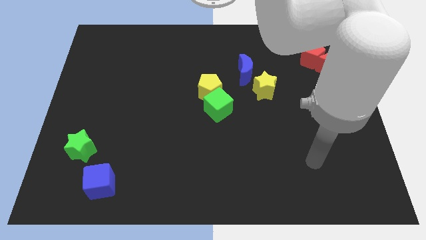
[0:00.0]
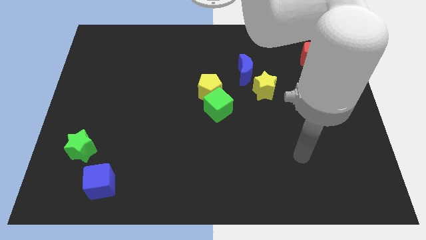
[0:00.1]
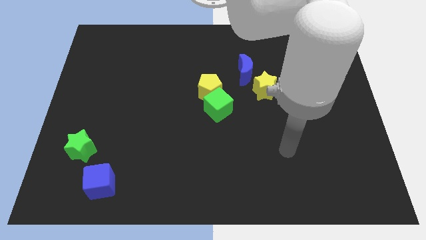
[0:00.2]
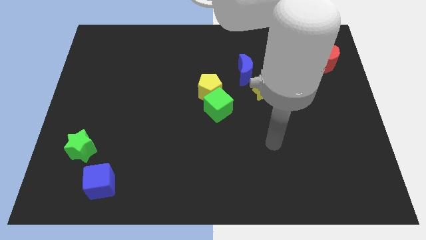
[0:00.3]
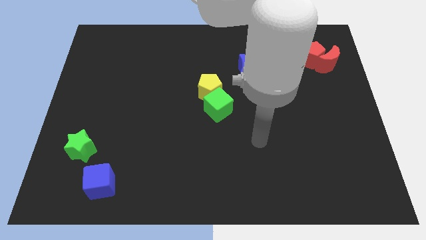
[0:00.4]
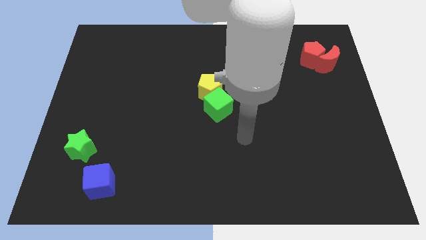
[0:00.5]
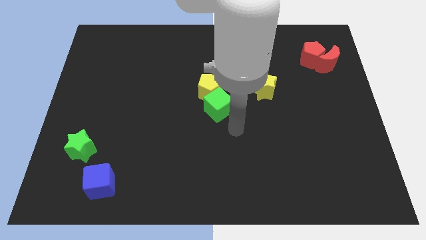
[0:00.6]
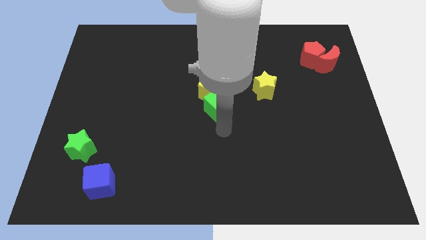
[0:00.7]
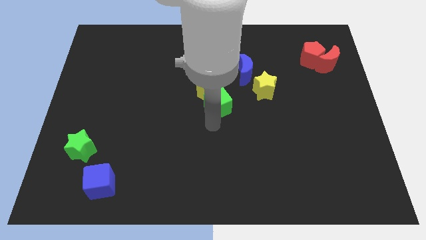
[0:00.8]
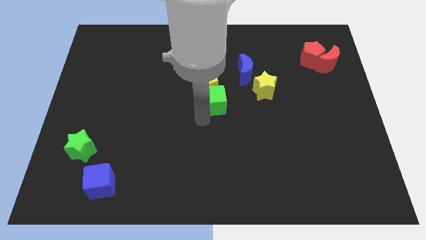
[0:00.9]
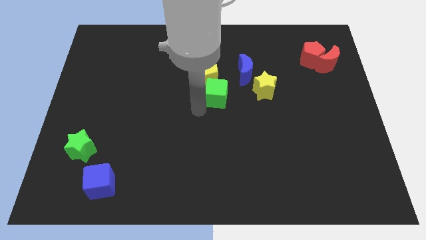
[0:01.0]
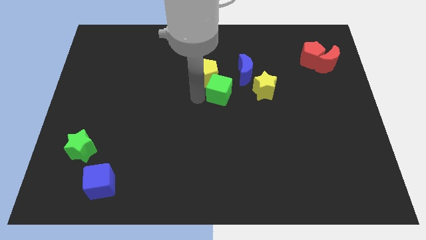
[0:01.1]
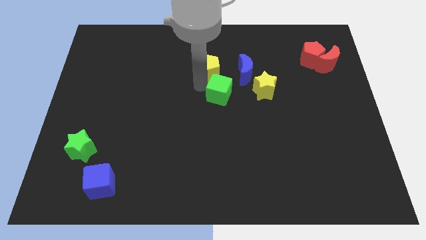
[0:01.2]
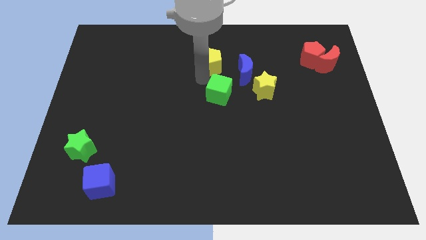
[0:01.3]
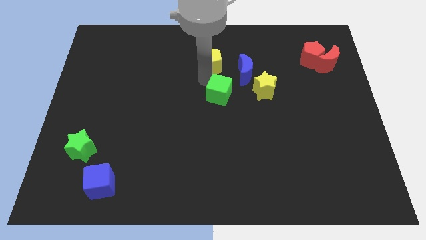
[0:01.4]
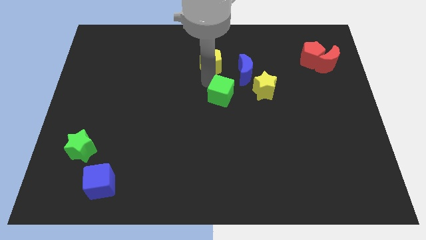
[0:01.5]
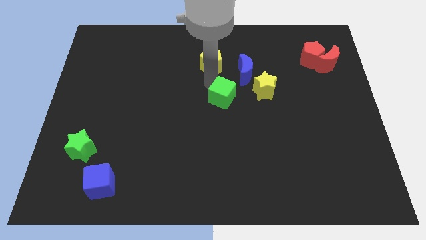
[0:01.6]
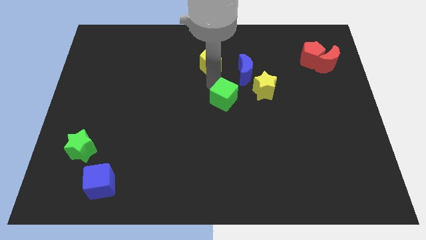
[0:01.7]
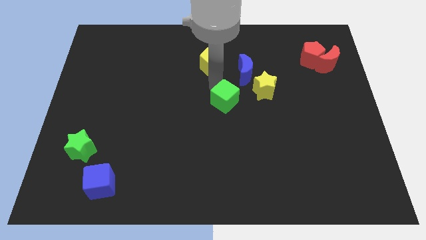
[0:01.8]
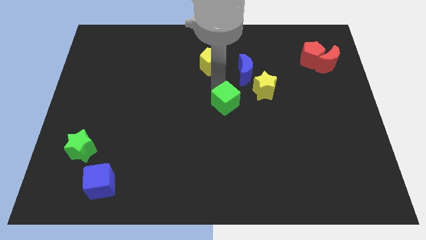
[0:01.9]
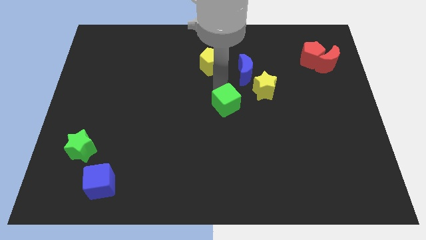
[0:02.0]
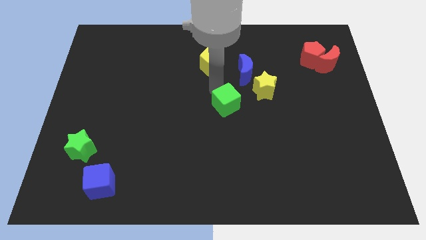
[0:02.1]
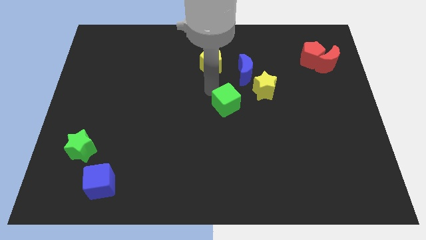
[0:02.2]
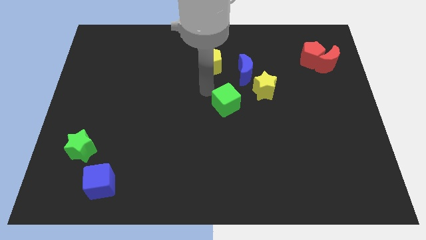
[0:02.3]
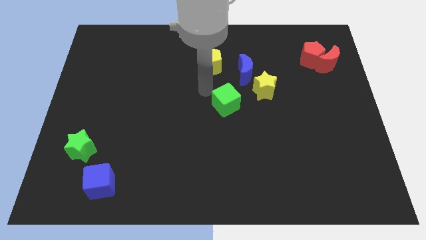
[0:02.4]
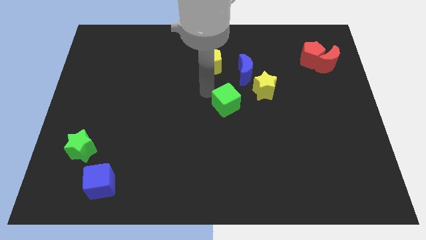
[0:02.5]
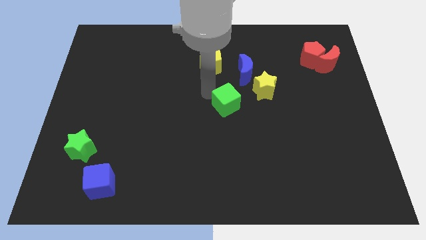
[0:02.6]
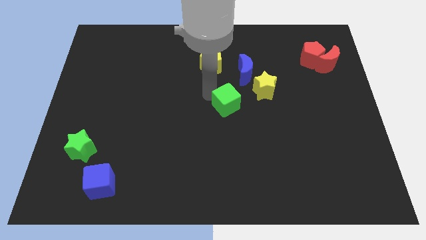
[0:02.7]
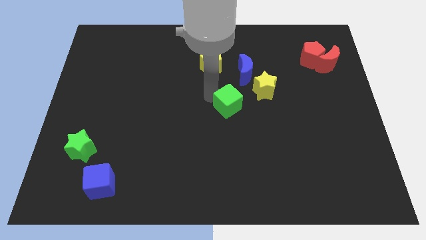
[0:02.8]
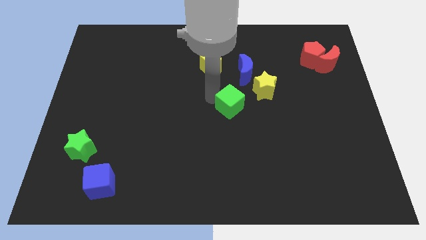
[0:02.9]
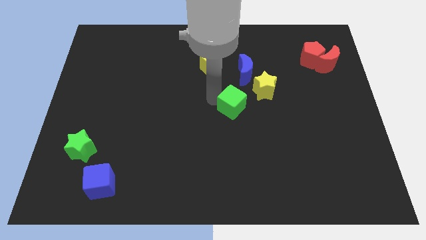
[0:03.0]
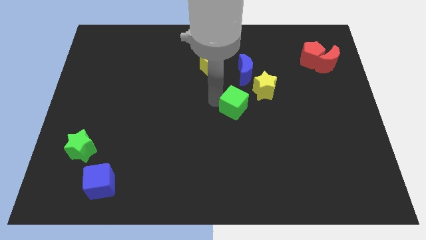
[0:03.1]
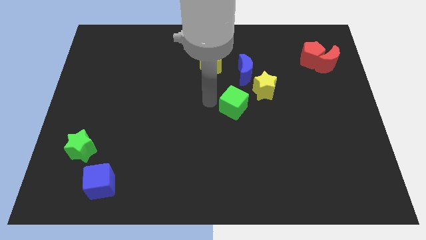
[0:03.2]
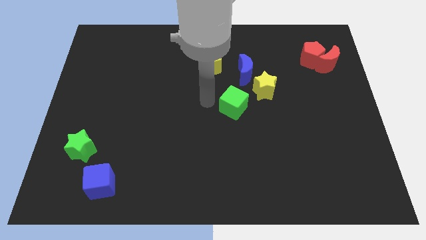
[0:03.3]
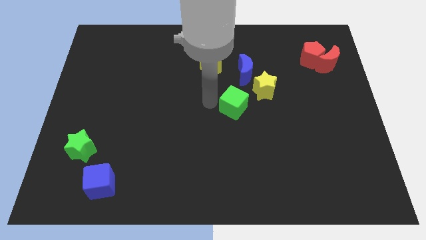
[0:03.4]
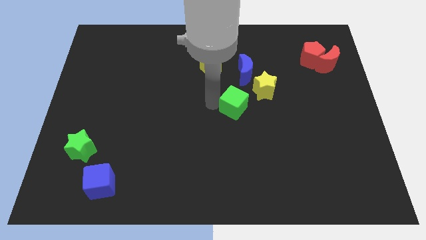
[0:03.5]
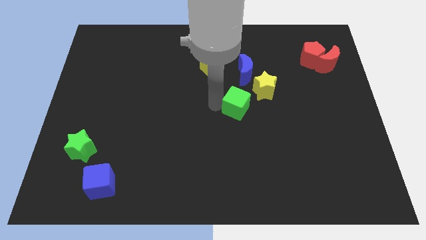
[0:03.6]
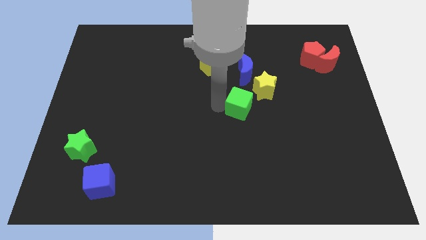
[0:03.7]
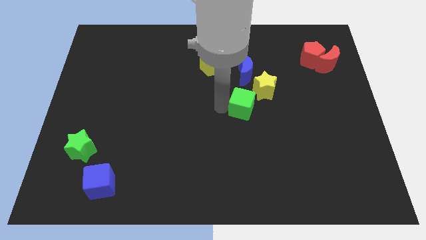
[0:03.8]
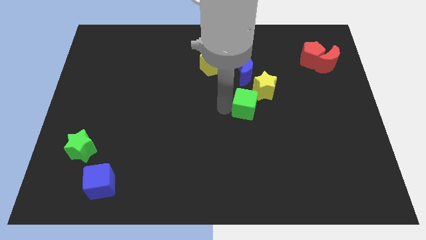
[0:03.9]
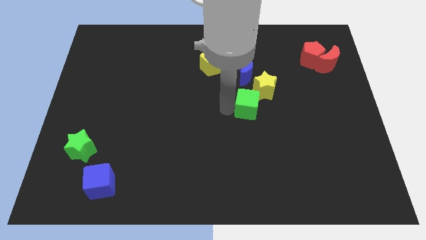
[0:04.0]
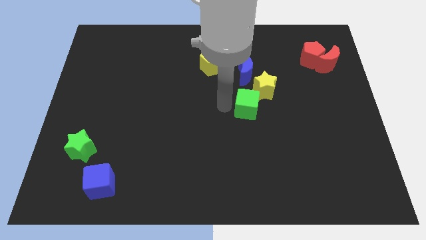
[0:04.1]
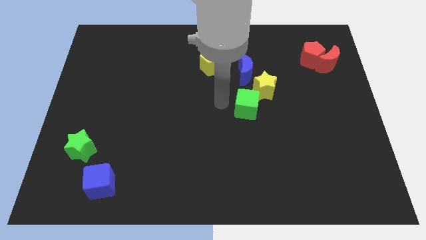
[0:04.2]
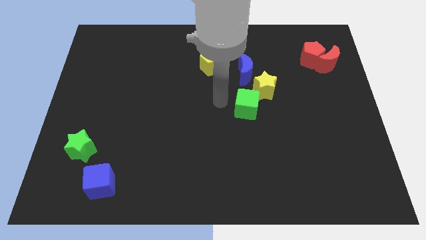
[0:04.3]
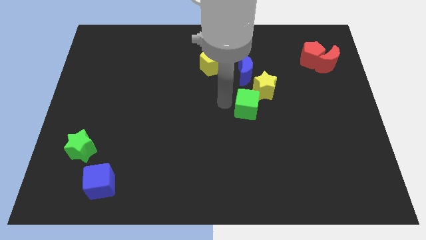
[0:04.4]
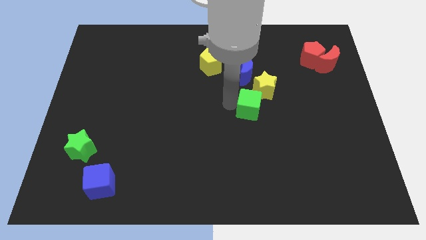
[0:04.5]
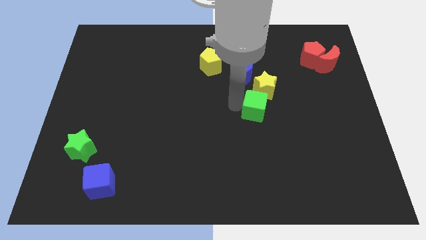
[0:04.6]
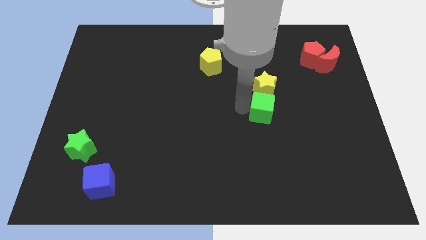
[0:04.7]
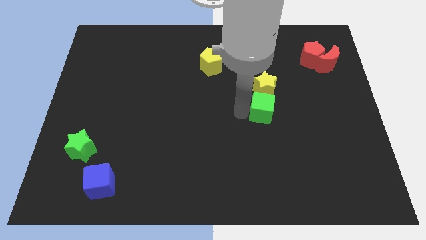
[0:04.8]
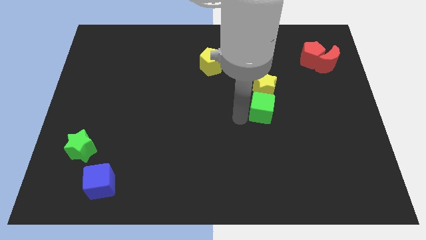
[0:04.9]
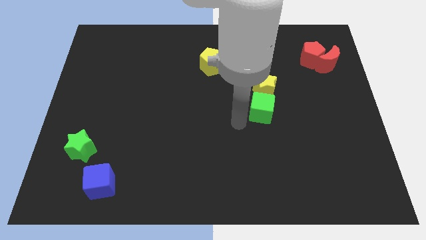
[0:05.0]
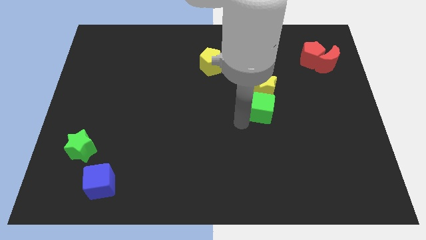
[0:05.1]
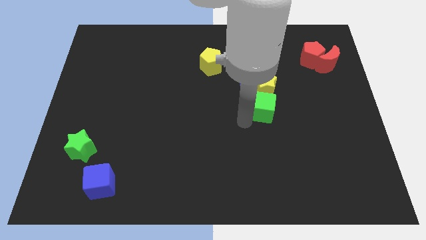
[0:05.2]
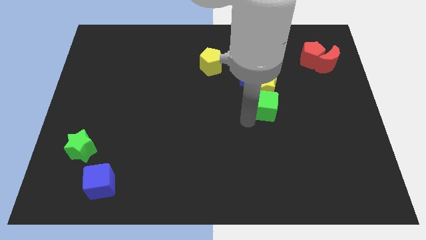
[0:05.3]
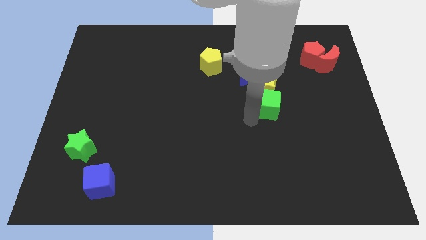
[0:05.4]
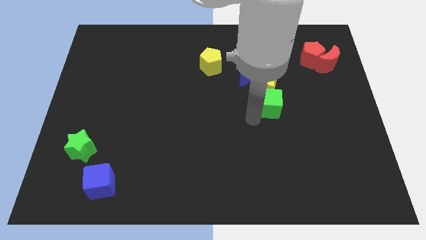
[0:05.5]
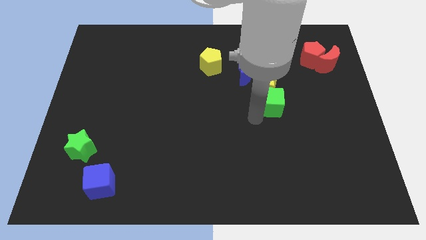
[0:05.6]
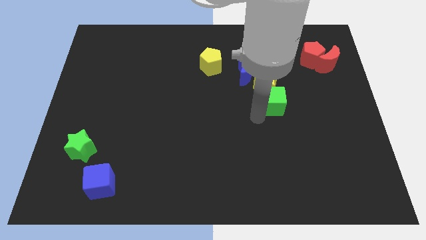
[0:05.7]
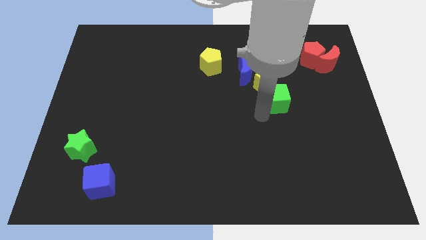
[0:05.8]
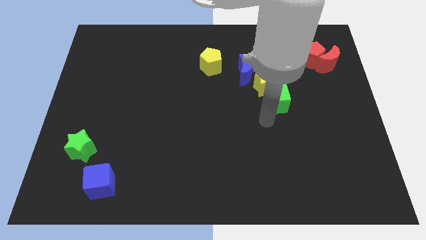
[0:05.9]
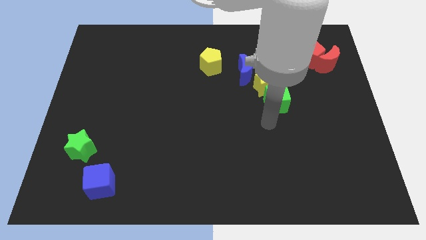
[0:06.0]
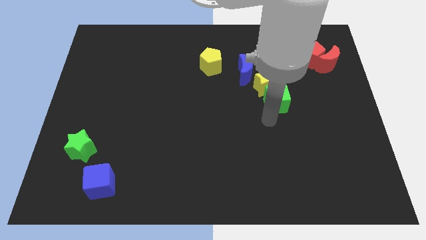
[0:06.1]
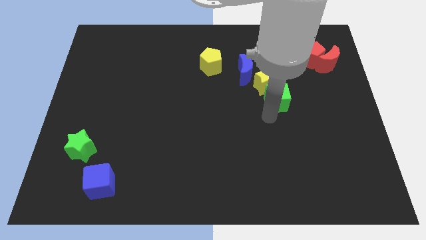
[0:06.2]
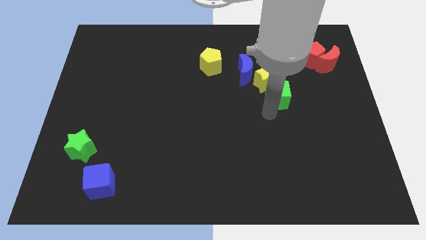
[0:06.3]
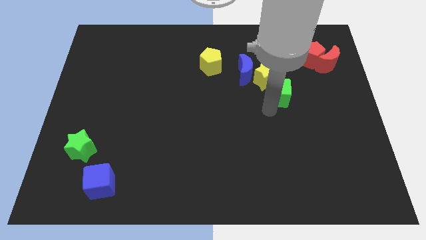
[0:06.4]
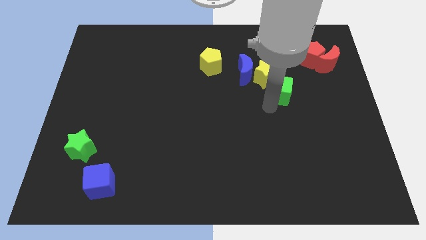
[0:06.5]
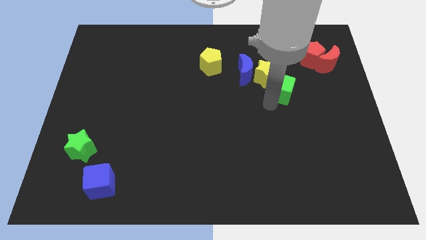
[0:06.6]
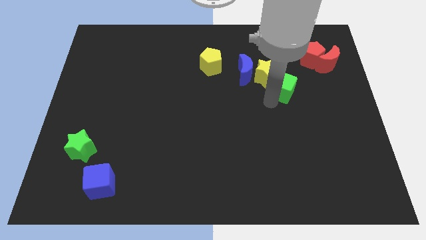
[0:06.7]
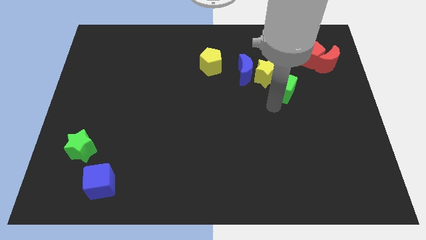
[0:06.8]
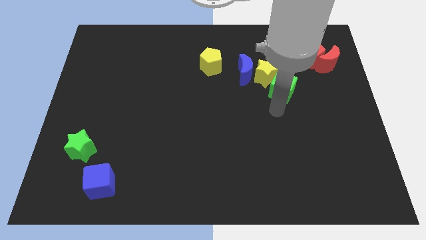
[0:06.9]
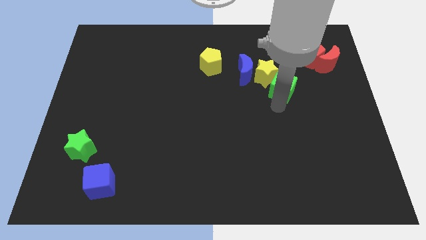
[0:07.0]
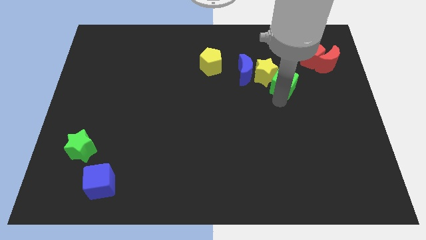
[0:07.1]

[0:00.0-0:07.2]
push the green cube to the right side of the blue moon
